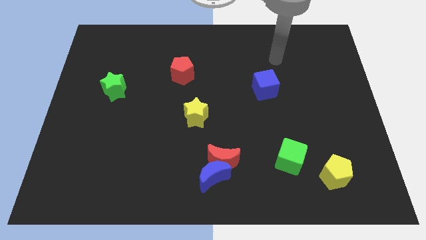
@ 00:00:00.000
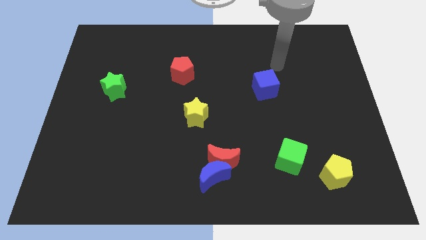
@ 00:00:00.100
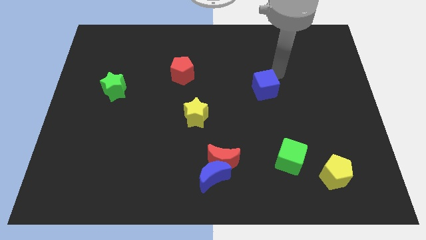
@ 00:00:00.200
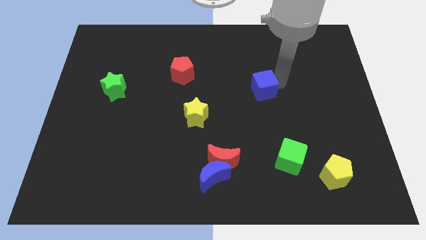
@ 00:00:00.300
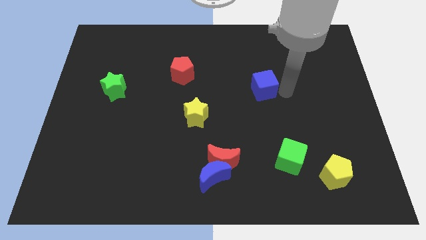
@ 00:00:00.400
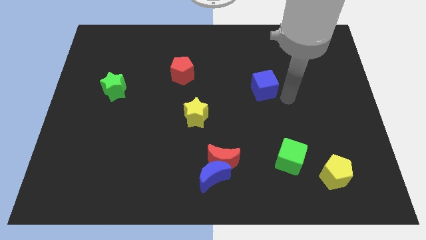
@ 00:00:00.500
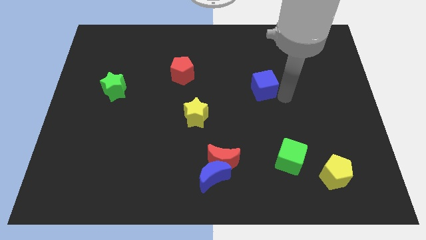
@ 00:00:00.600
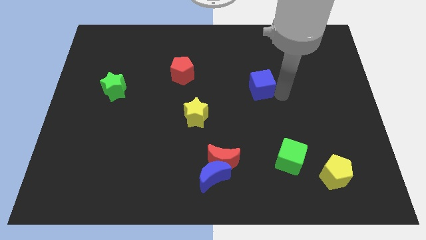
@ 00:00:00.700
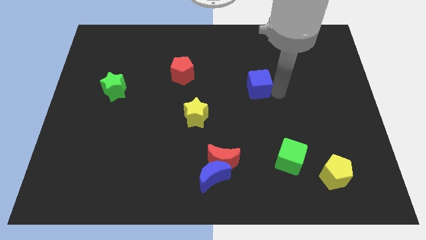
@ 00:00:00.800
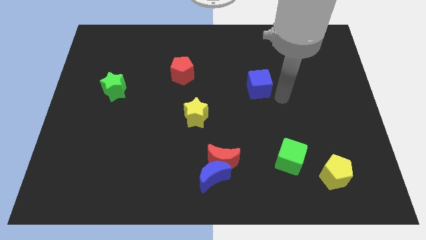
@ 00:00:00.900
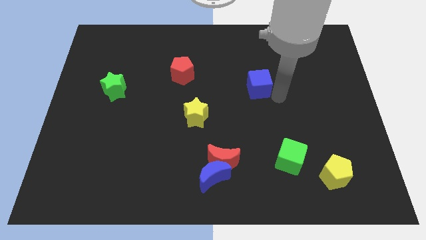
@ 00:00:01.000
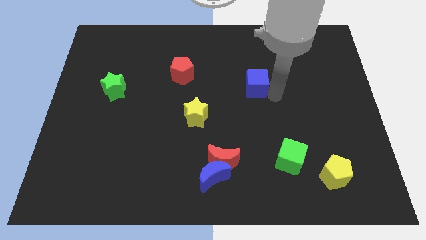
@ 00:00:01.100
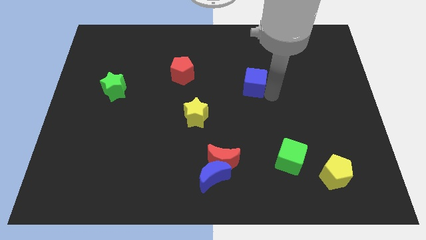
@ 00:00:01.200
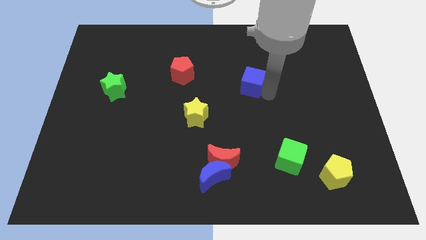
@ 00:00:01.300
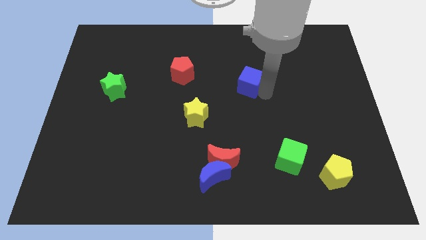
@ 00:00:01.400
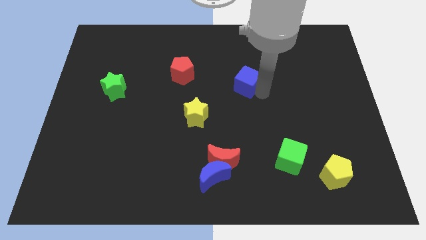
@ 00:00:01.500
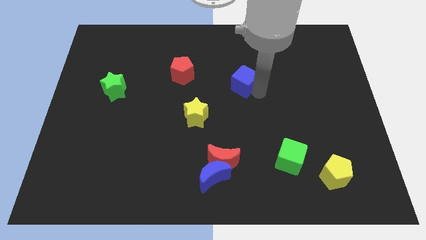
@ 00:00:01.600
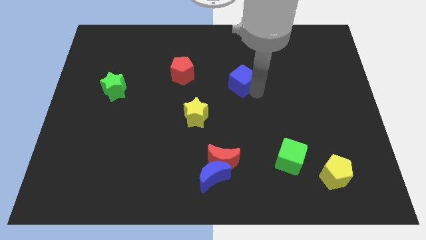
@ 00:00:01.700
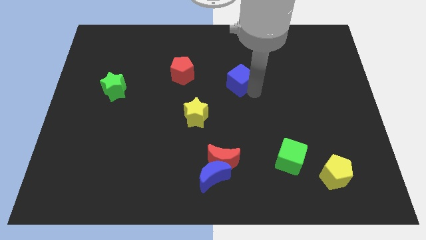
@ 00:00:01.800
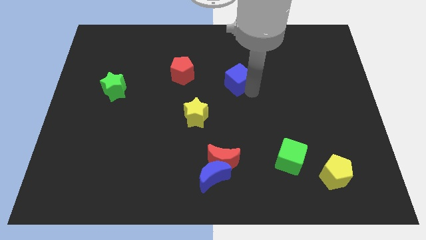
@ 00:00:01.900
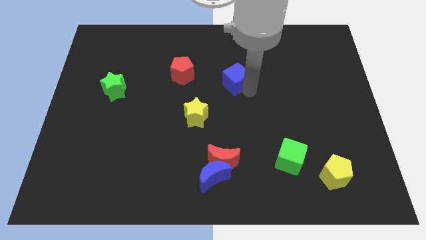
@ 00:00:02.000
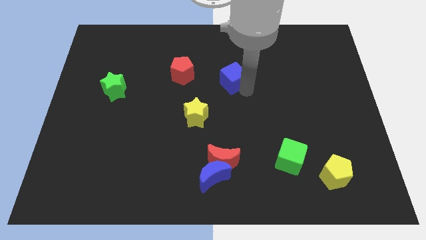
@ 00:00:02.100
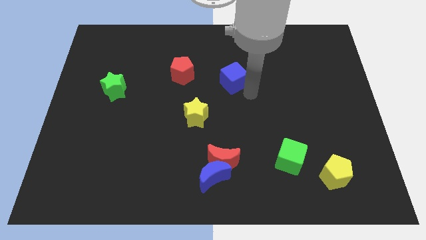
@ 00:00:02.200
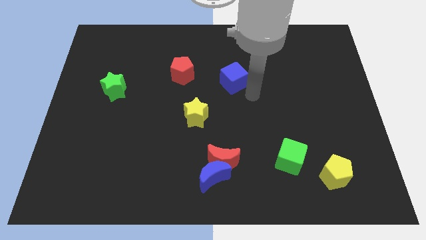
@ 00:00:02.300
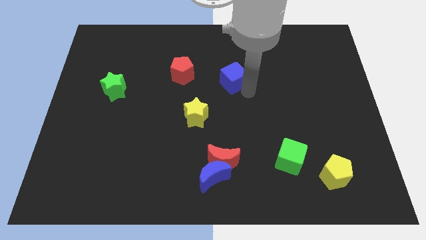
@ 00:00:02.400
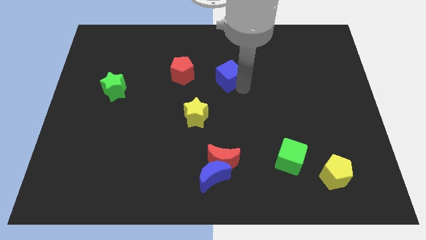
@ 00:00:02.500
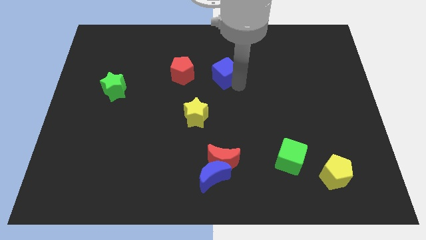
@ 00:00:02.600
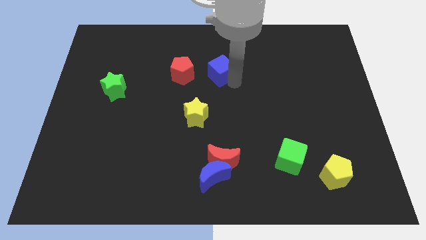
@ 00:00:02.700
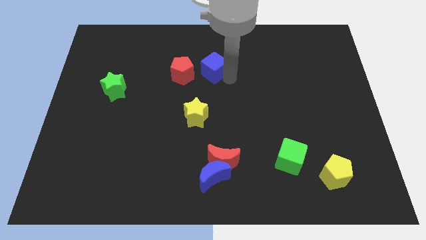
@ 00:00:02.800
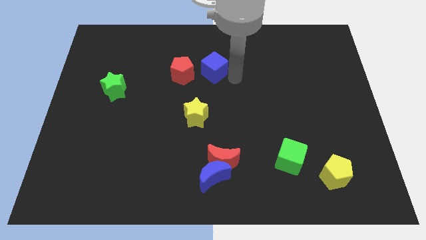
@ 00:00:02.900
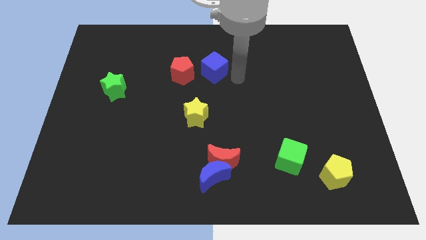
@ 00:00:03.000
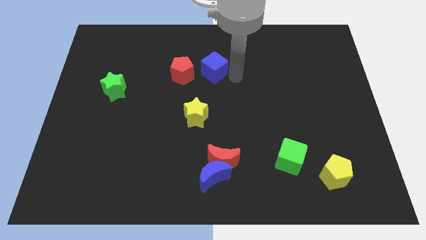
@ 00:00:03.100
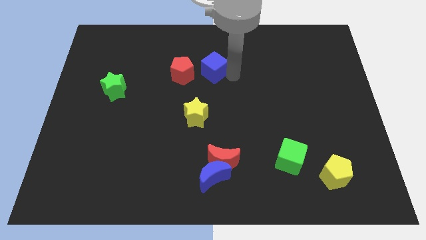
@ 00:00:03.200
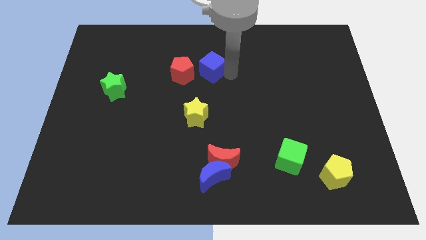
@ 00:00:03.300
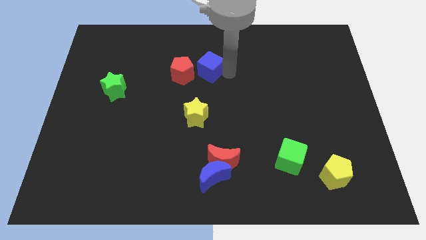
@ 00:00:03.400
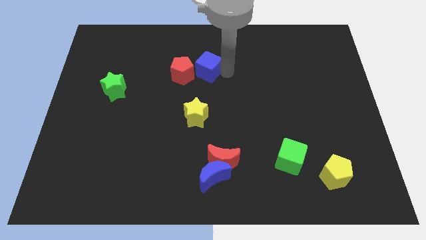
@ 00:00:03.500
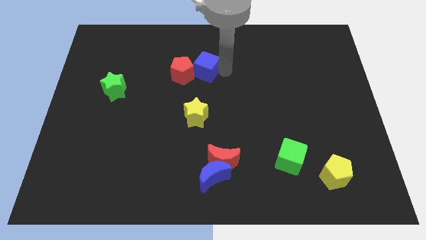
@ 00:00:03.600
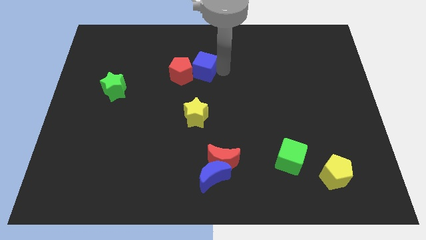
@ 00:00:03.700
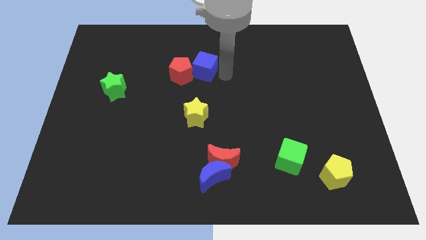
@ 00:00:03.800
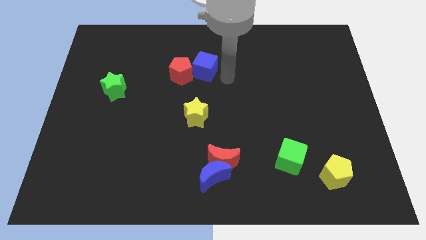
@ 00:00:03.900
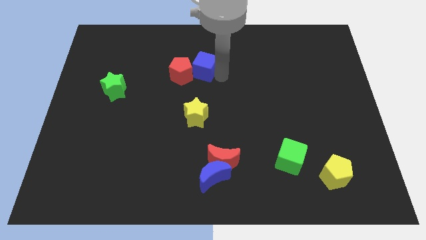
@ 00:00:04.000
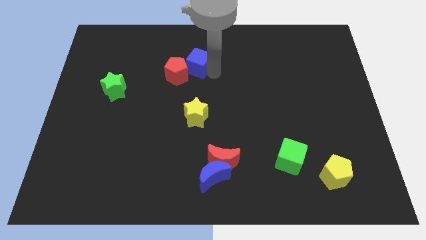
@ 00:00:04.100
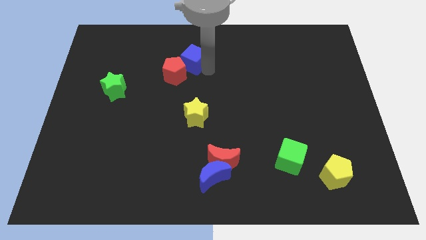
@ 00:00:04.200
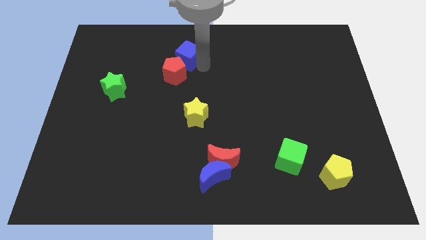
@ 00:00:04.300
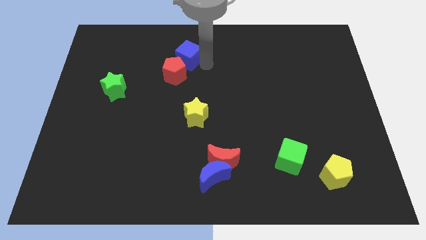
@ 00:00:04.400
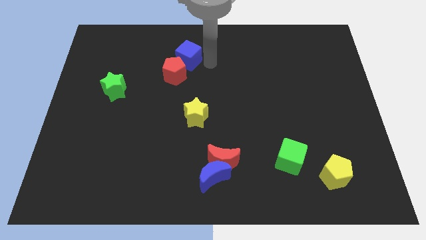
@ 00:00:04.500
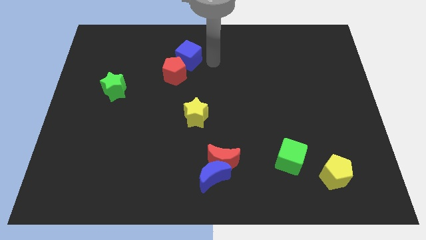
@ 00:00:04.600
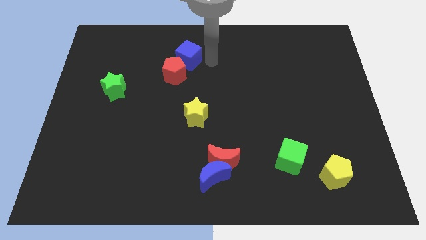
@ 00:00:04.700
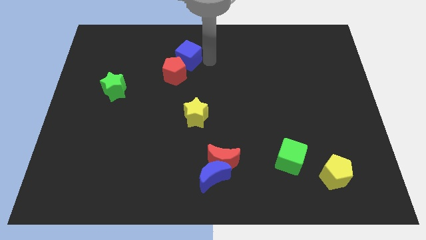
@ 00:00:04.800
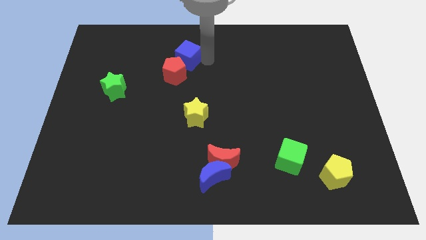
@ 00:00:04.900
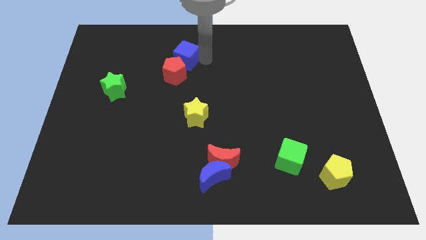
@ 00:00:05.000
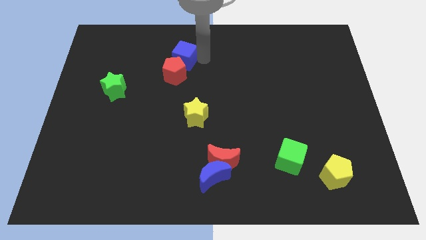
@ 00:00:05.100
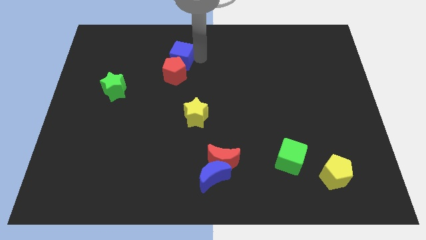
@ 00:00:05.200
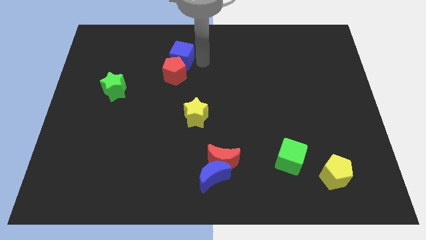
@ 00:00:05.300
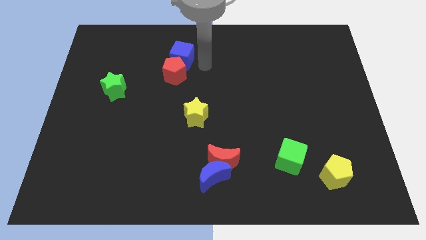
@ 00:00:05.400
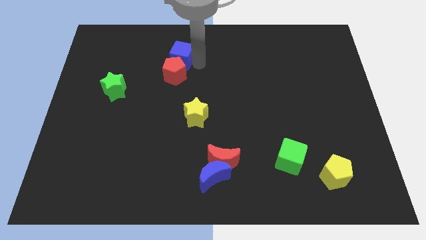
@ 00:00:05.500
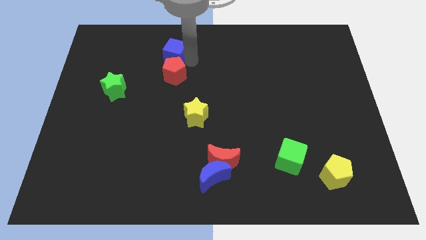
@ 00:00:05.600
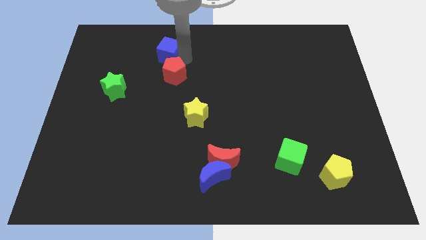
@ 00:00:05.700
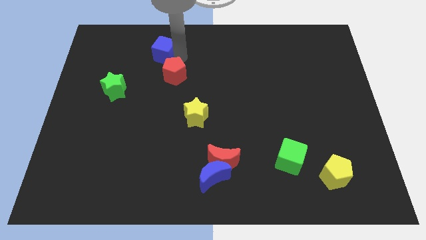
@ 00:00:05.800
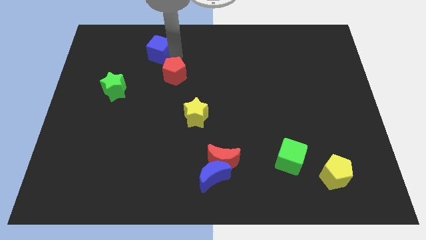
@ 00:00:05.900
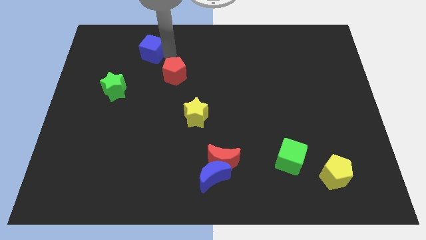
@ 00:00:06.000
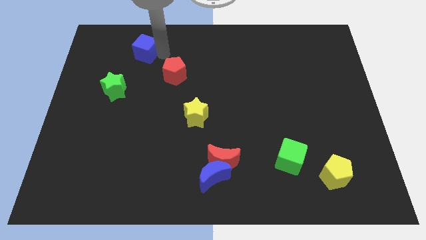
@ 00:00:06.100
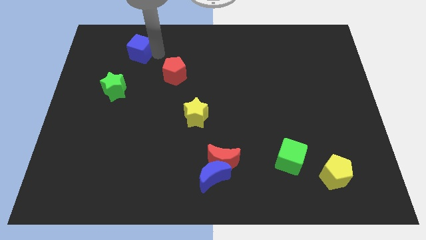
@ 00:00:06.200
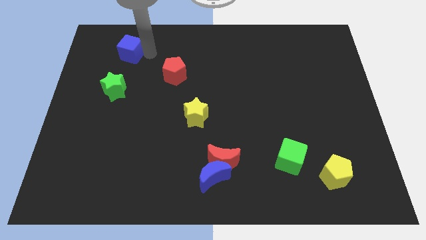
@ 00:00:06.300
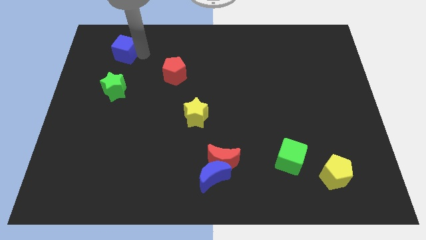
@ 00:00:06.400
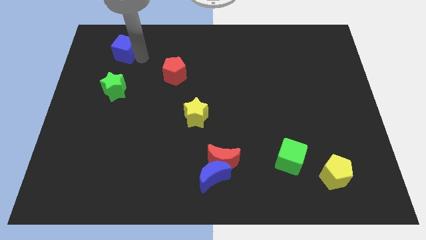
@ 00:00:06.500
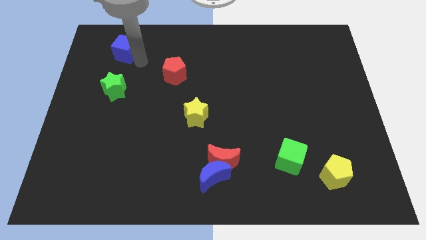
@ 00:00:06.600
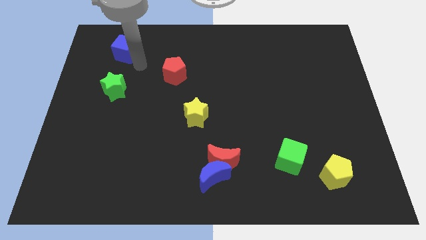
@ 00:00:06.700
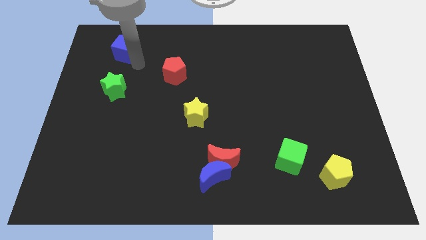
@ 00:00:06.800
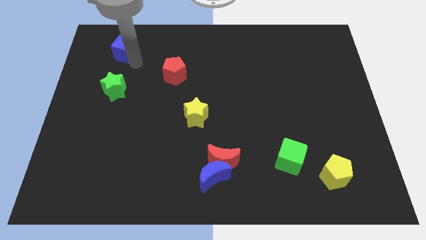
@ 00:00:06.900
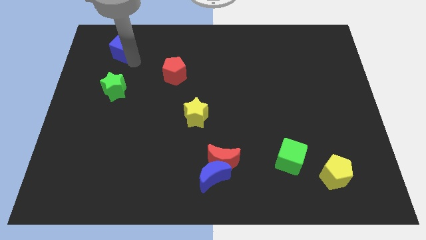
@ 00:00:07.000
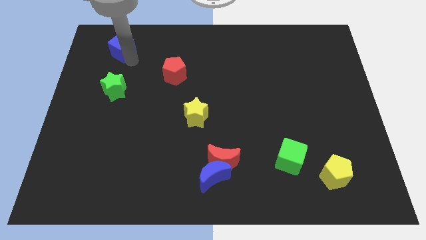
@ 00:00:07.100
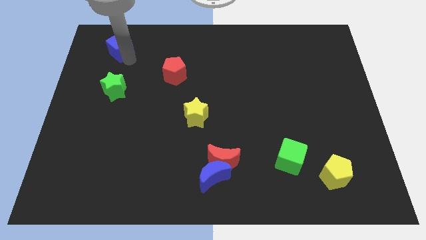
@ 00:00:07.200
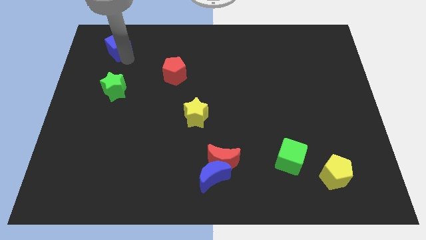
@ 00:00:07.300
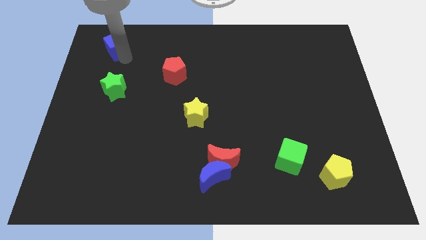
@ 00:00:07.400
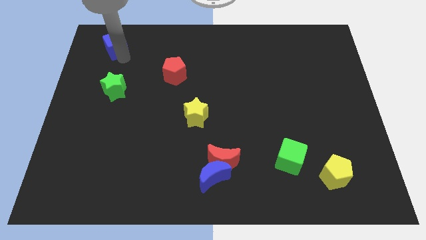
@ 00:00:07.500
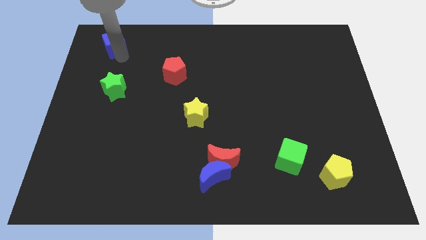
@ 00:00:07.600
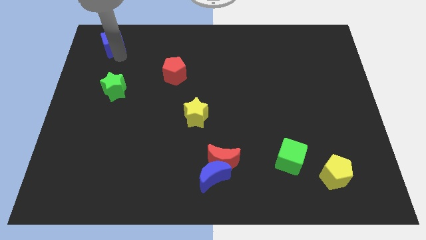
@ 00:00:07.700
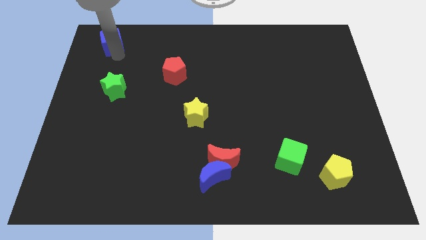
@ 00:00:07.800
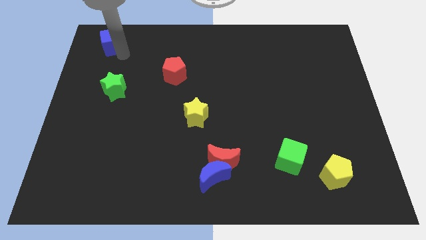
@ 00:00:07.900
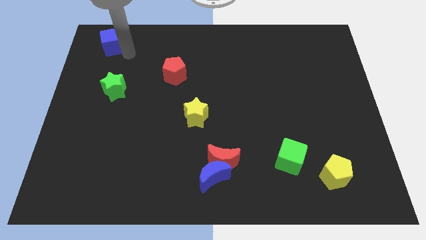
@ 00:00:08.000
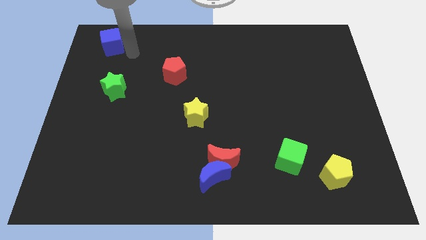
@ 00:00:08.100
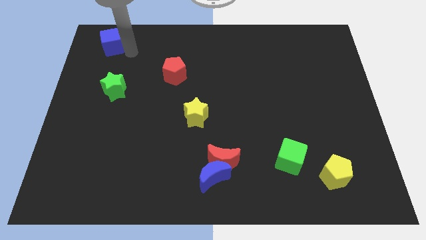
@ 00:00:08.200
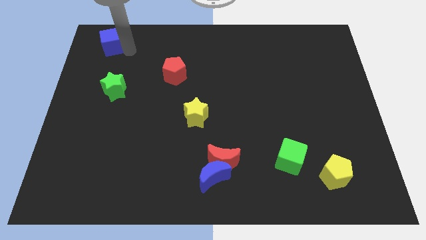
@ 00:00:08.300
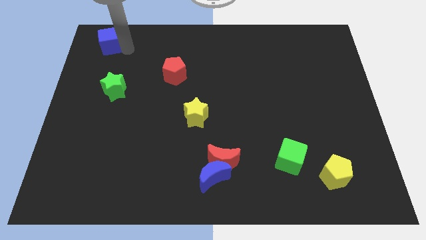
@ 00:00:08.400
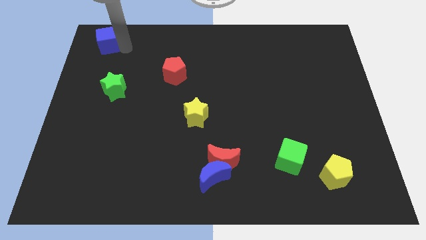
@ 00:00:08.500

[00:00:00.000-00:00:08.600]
push the blue cube to the top left corner
